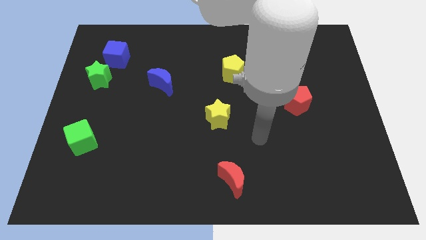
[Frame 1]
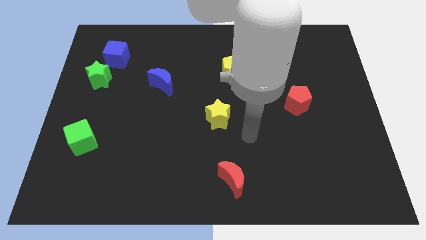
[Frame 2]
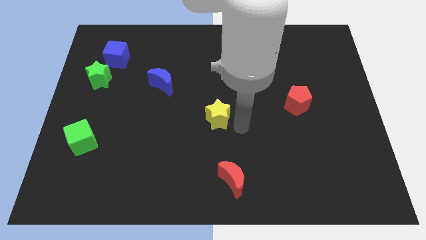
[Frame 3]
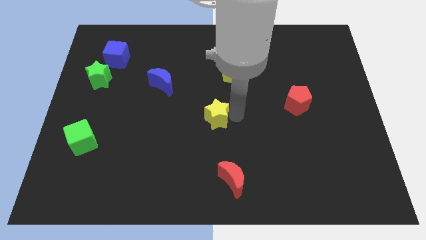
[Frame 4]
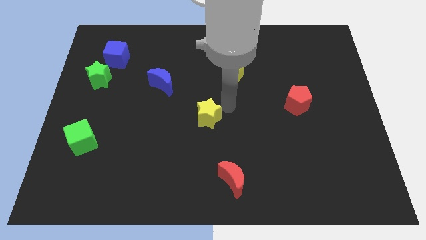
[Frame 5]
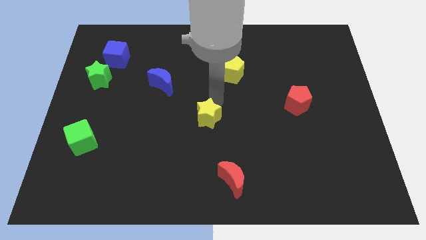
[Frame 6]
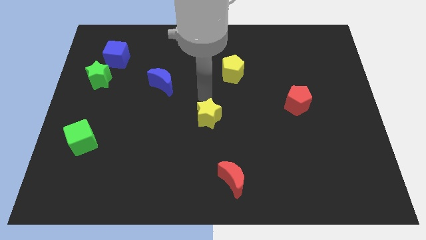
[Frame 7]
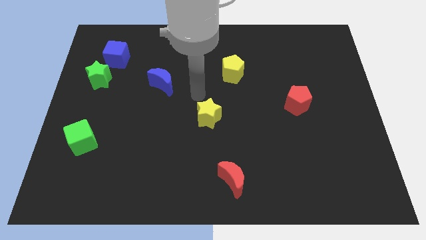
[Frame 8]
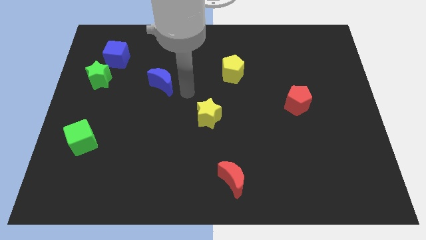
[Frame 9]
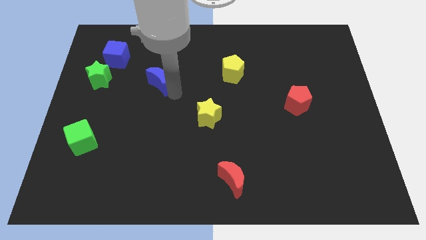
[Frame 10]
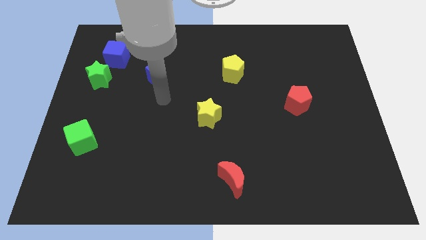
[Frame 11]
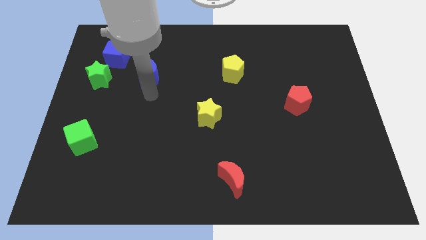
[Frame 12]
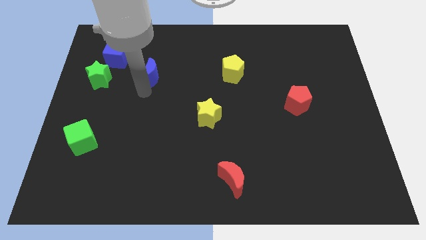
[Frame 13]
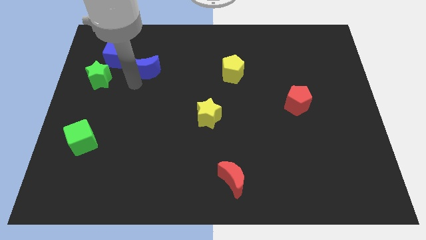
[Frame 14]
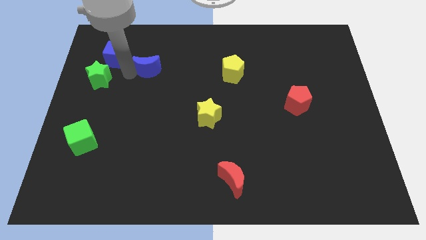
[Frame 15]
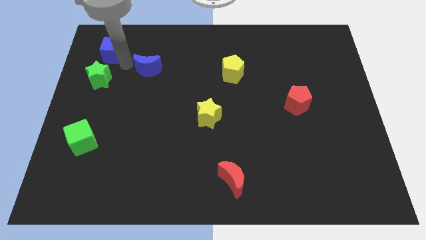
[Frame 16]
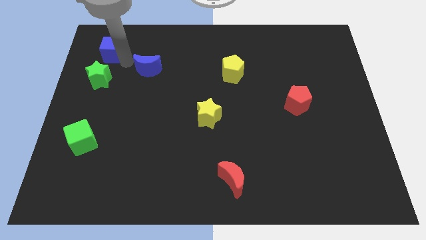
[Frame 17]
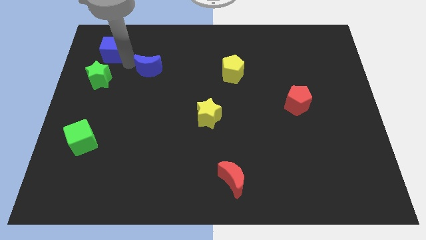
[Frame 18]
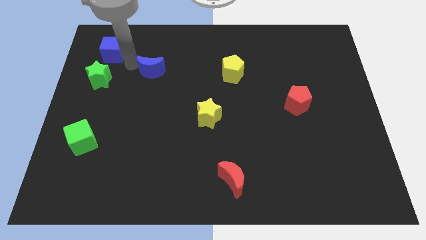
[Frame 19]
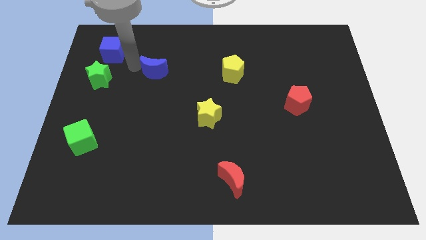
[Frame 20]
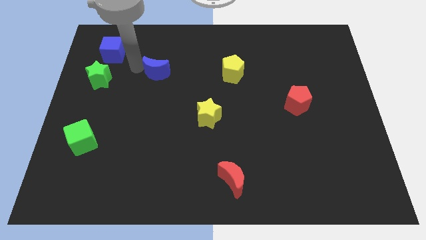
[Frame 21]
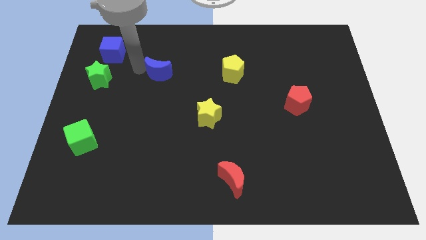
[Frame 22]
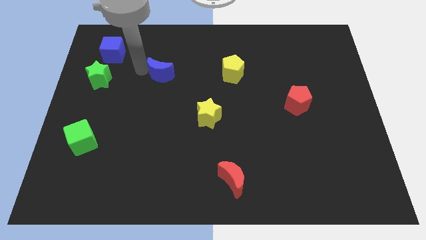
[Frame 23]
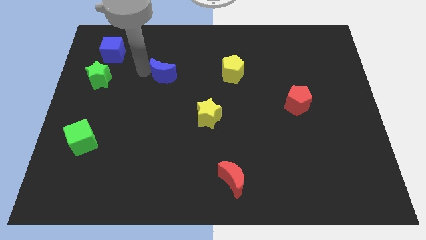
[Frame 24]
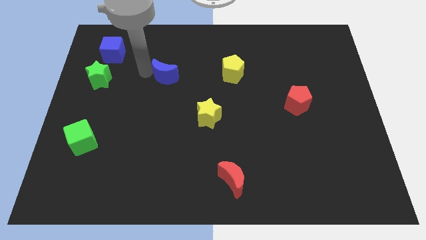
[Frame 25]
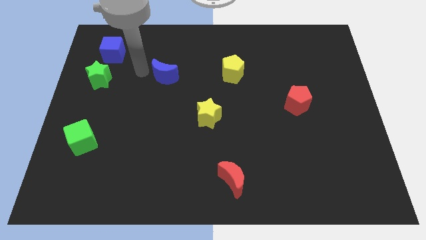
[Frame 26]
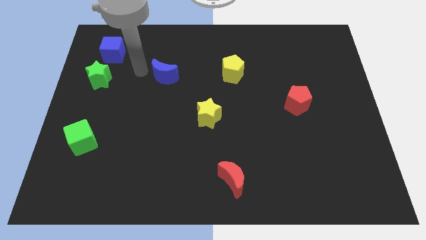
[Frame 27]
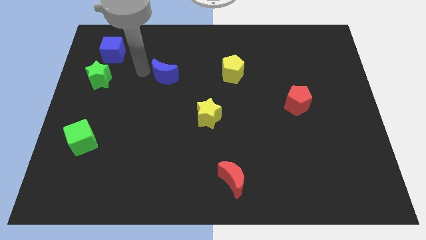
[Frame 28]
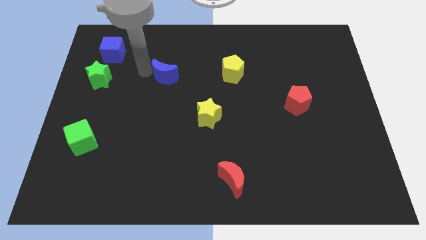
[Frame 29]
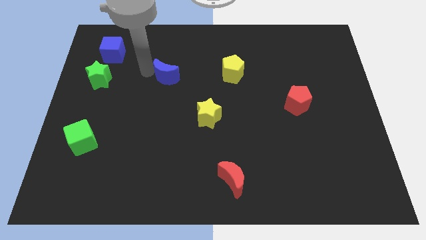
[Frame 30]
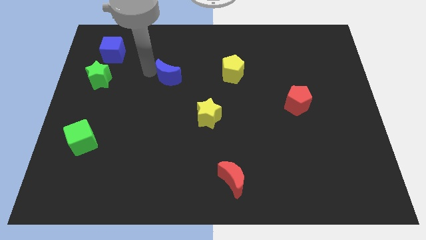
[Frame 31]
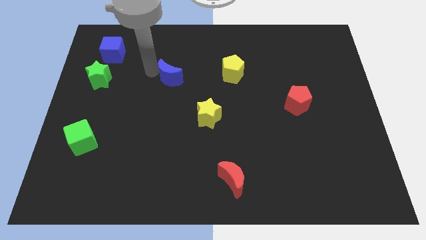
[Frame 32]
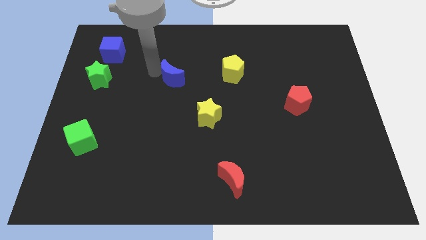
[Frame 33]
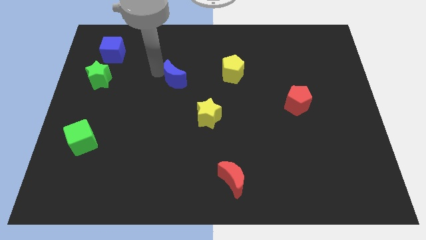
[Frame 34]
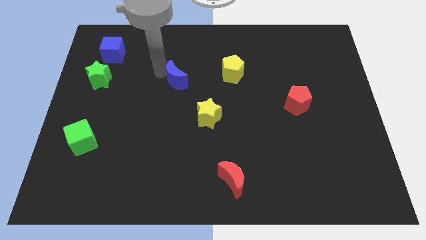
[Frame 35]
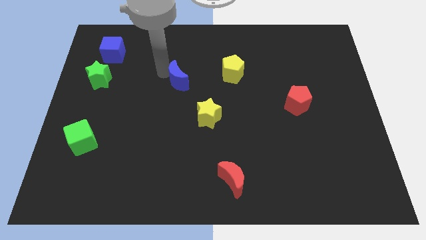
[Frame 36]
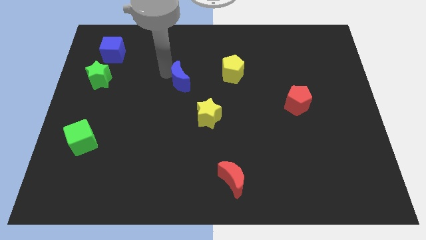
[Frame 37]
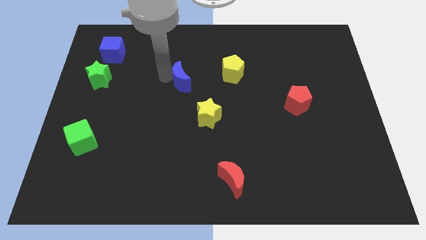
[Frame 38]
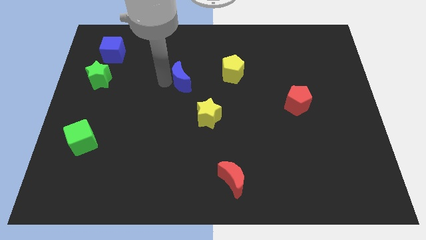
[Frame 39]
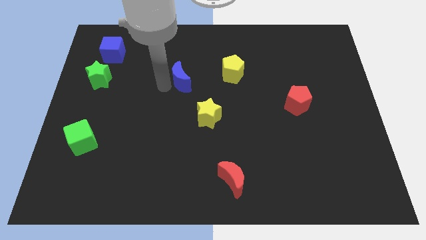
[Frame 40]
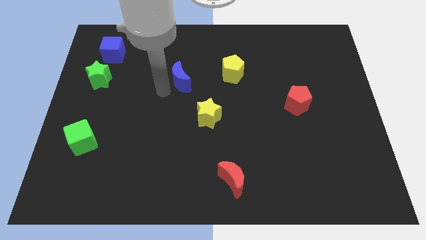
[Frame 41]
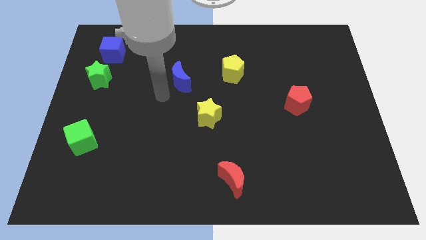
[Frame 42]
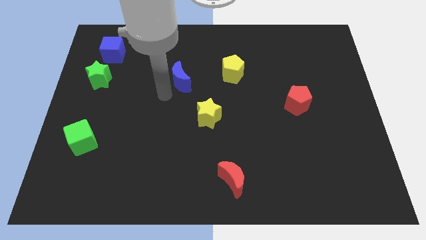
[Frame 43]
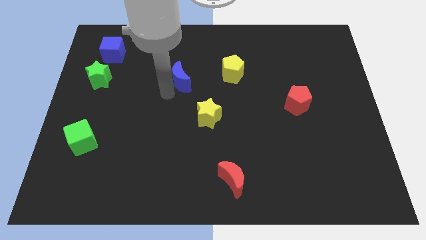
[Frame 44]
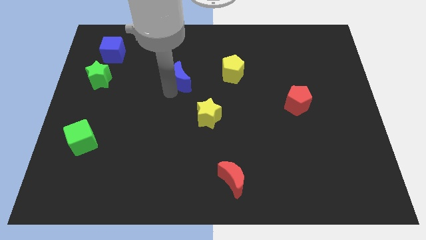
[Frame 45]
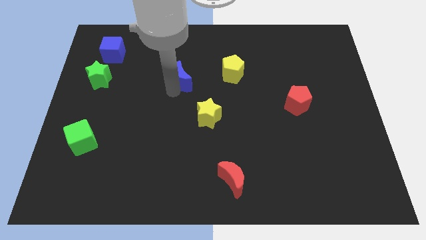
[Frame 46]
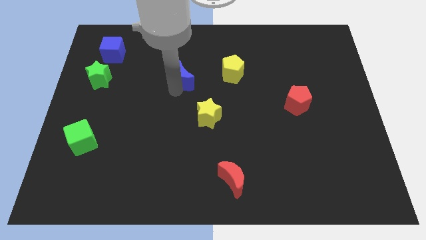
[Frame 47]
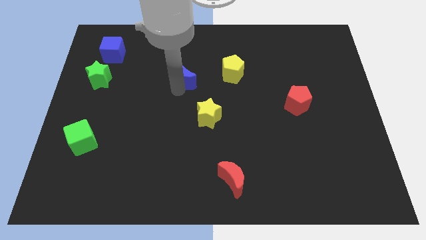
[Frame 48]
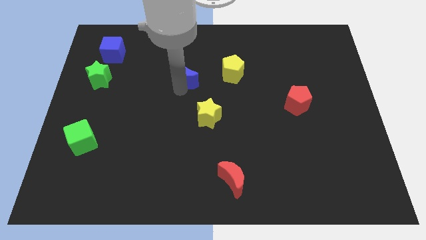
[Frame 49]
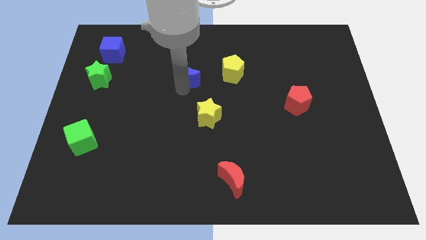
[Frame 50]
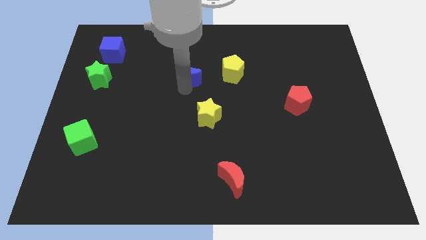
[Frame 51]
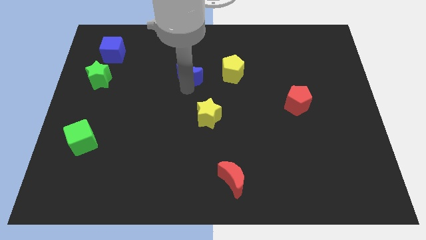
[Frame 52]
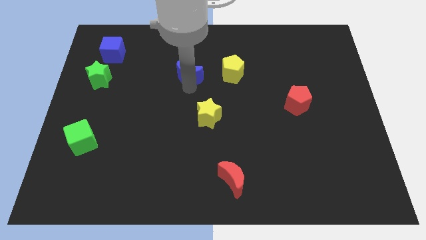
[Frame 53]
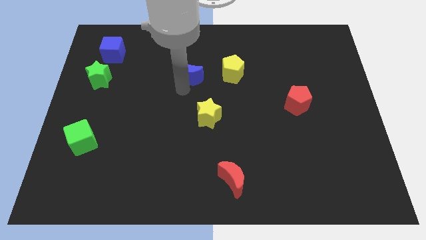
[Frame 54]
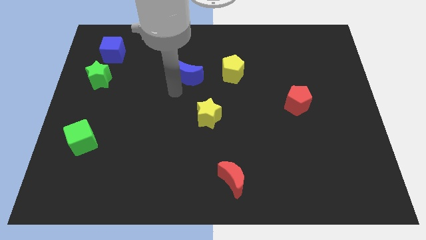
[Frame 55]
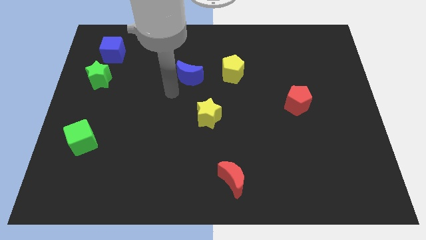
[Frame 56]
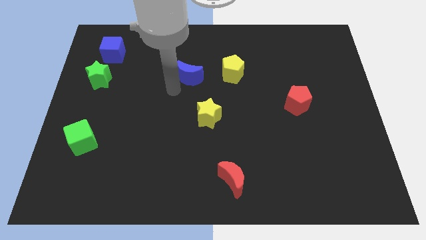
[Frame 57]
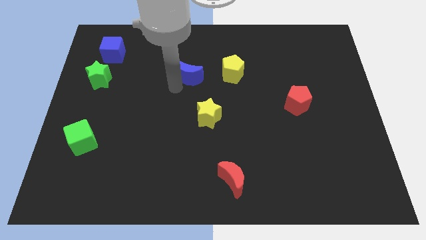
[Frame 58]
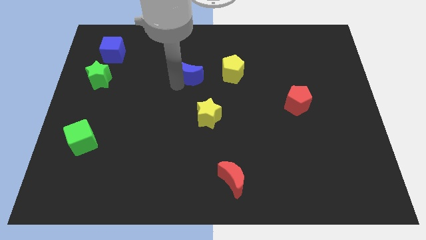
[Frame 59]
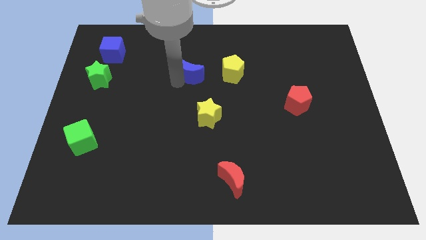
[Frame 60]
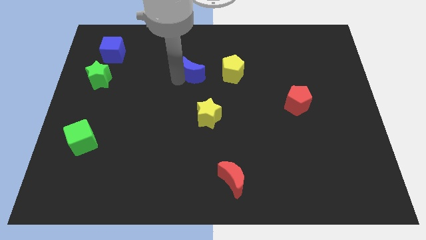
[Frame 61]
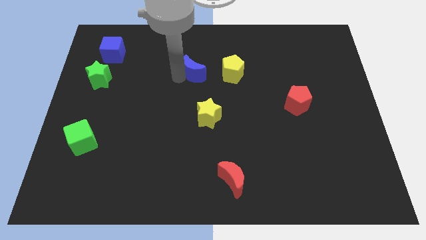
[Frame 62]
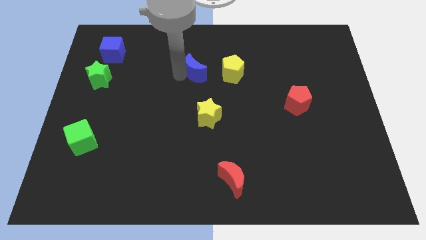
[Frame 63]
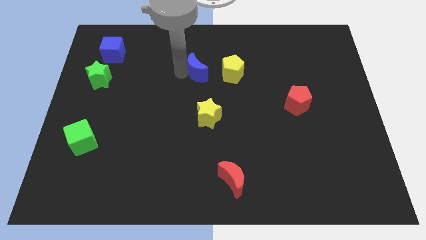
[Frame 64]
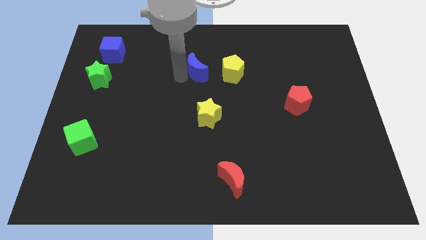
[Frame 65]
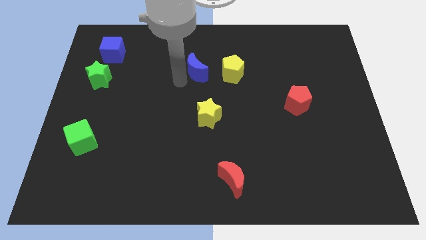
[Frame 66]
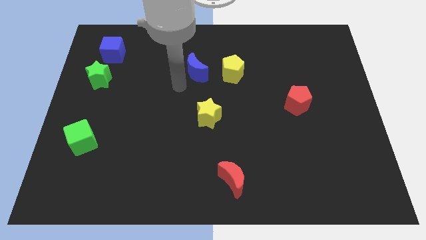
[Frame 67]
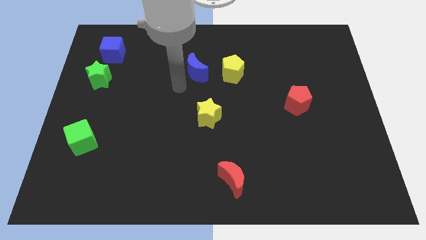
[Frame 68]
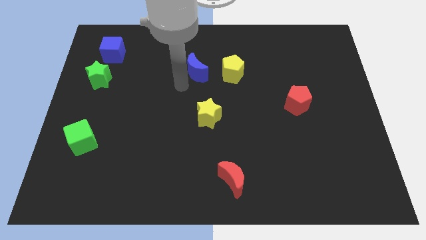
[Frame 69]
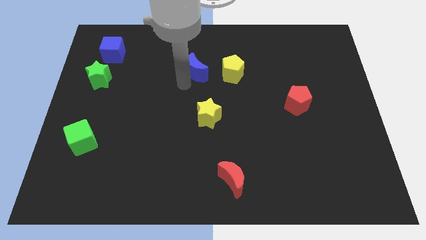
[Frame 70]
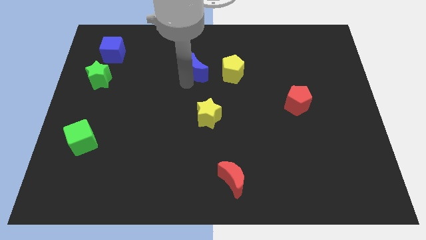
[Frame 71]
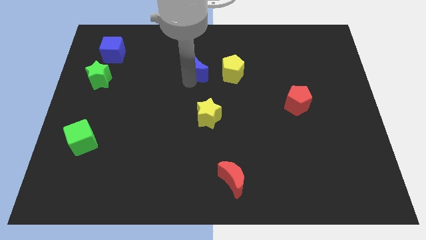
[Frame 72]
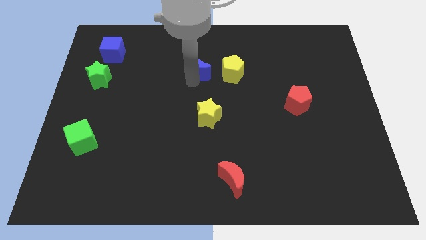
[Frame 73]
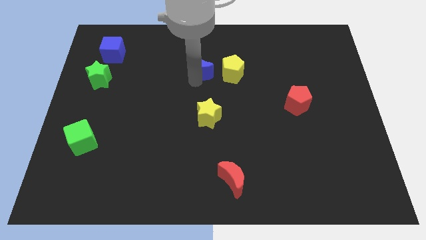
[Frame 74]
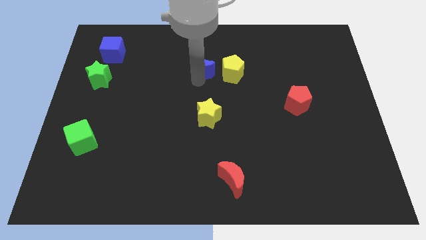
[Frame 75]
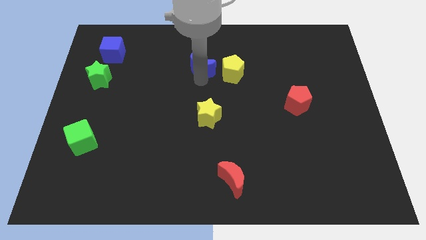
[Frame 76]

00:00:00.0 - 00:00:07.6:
move the blue moon to the top left side of the yellow pentagon
